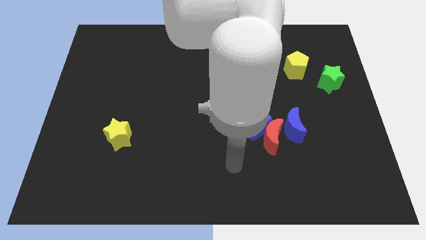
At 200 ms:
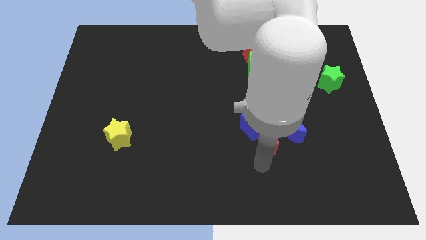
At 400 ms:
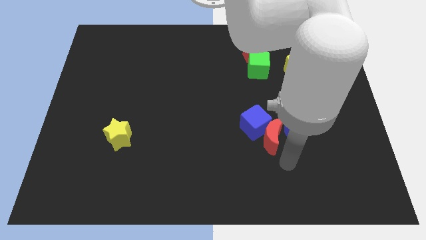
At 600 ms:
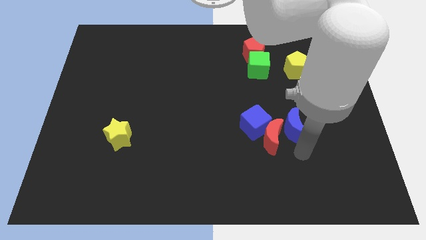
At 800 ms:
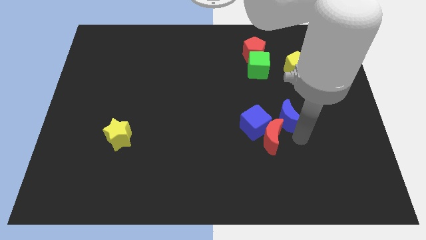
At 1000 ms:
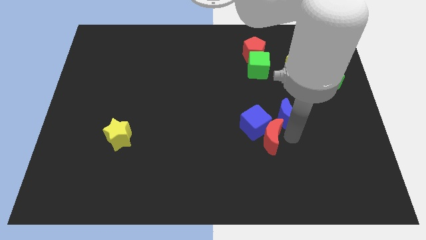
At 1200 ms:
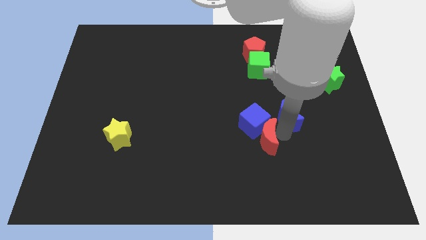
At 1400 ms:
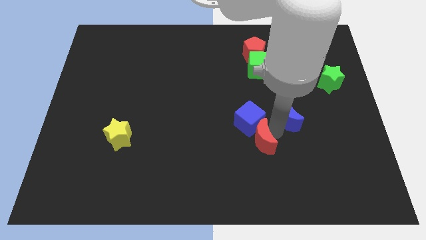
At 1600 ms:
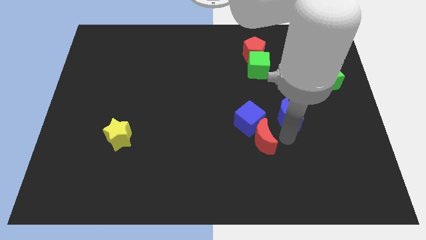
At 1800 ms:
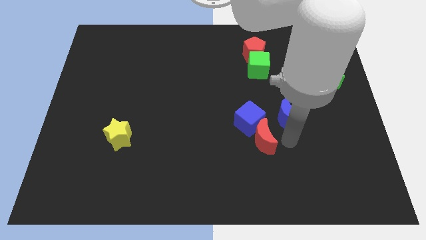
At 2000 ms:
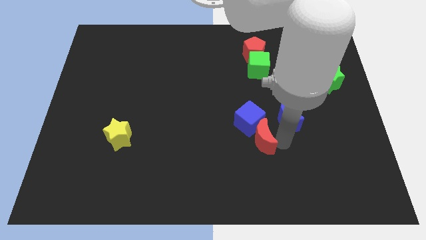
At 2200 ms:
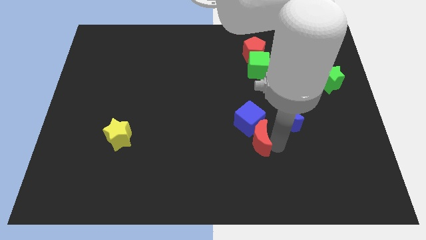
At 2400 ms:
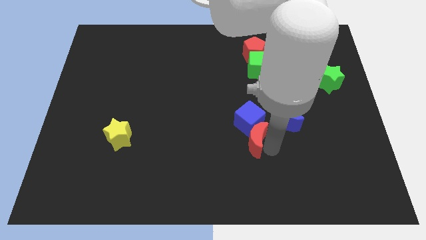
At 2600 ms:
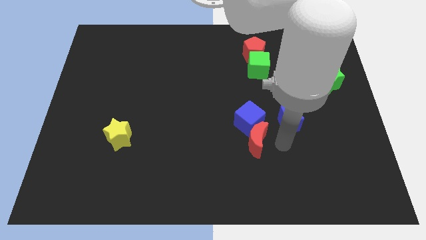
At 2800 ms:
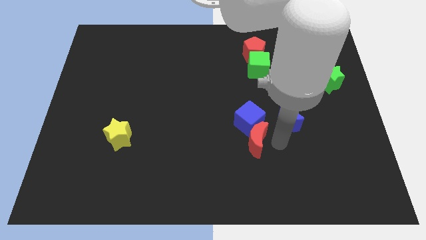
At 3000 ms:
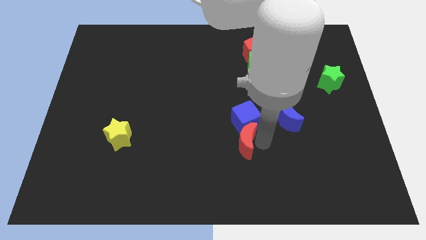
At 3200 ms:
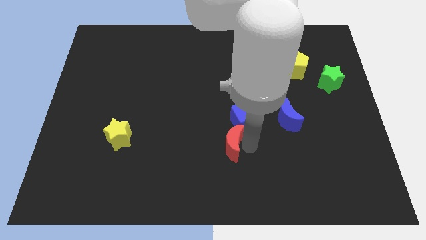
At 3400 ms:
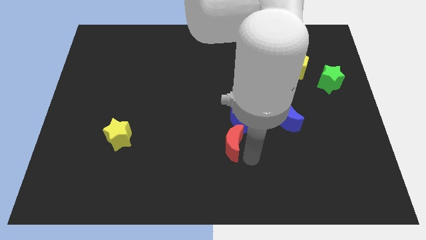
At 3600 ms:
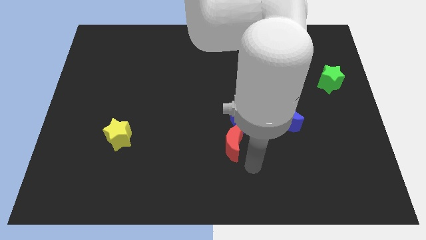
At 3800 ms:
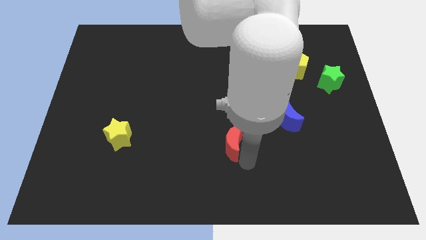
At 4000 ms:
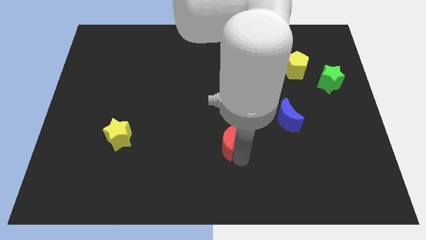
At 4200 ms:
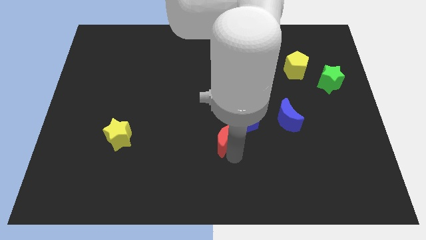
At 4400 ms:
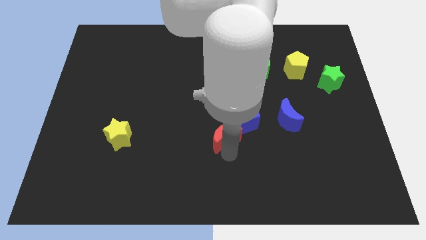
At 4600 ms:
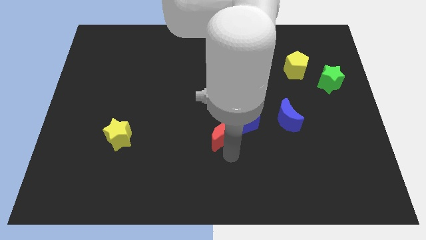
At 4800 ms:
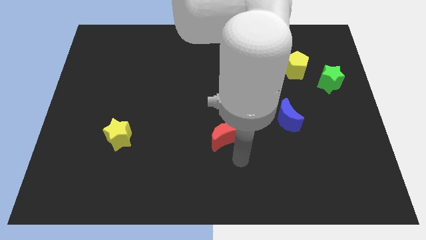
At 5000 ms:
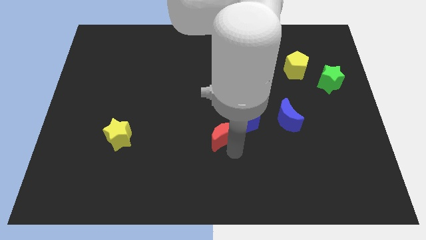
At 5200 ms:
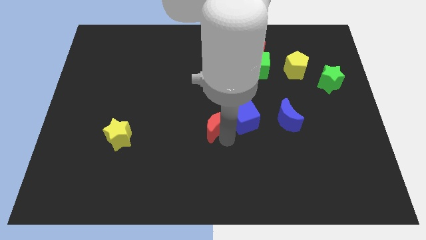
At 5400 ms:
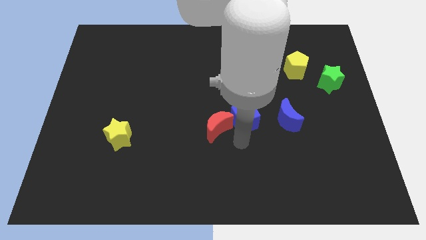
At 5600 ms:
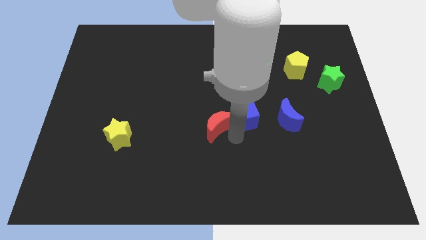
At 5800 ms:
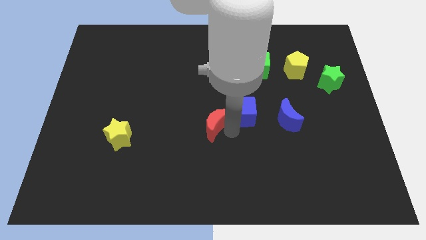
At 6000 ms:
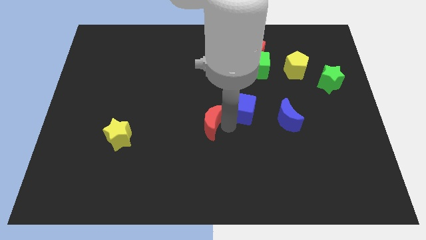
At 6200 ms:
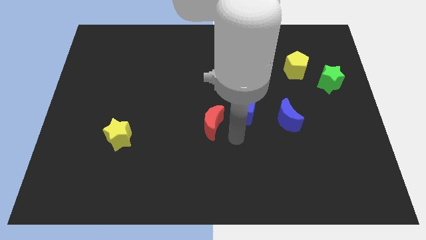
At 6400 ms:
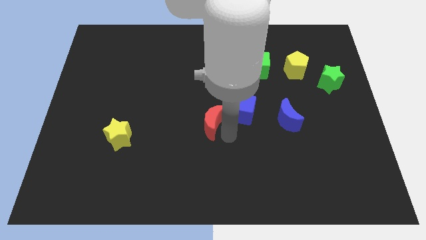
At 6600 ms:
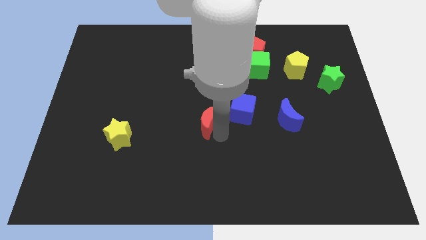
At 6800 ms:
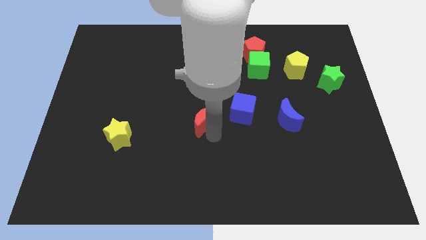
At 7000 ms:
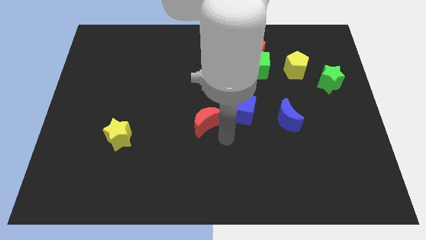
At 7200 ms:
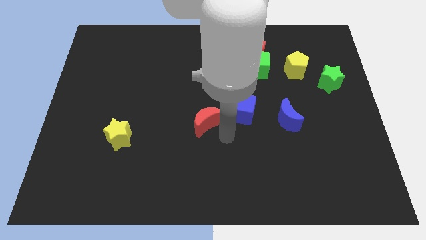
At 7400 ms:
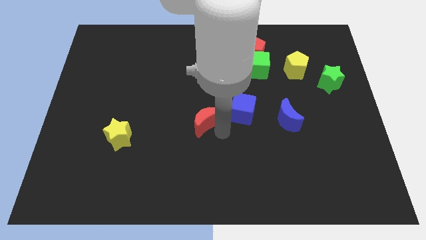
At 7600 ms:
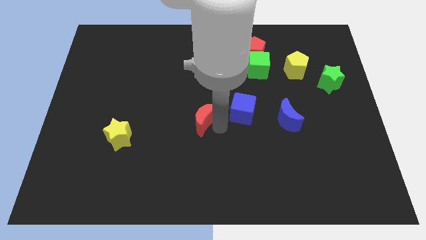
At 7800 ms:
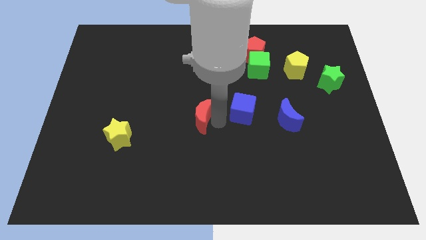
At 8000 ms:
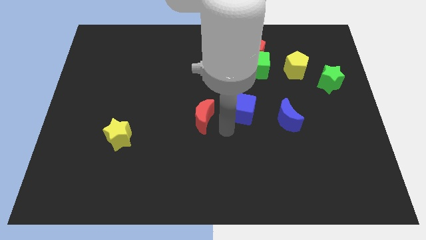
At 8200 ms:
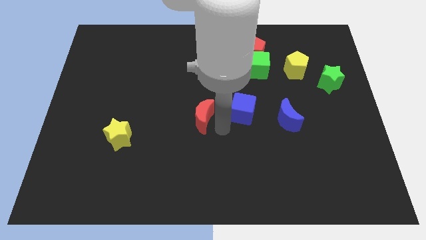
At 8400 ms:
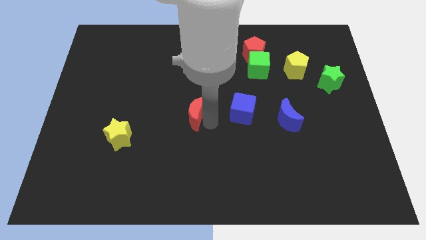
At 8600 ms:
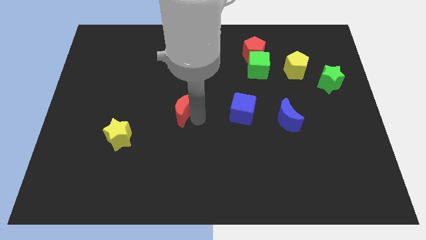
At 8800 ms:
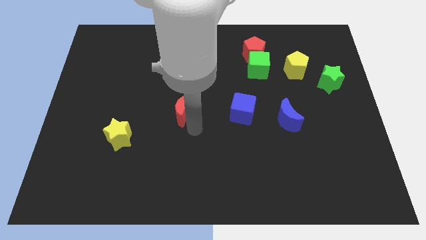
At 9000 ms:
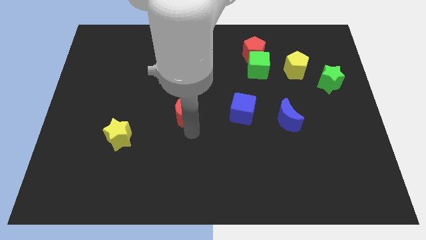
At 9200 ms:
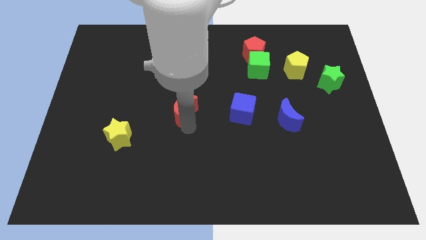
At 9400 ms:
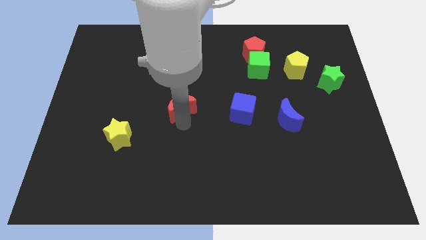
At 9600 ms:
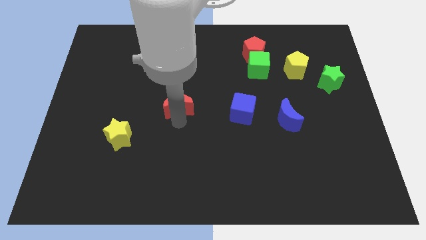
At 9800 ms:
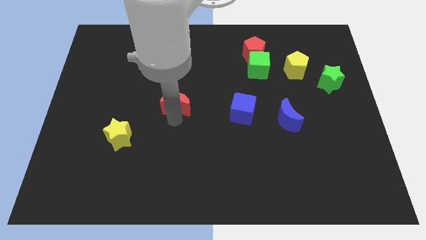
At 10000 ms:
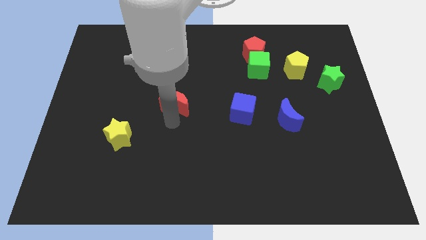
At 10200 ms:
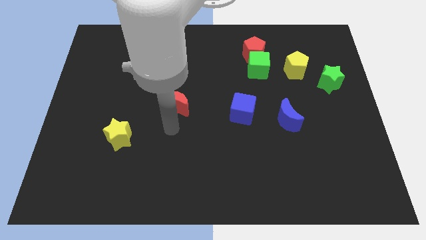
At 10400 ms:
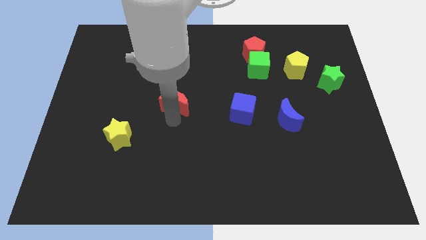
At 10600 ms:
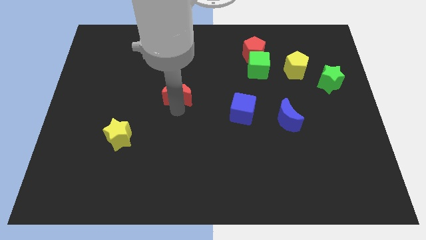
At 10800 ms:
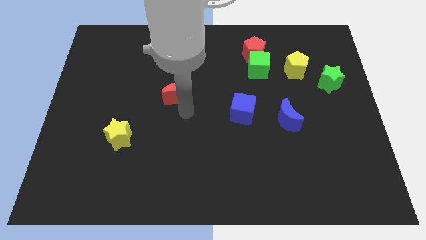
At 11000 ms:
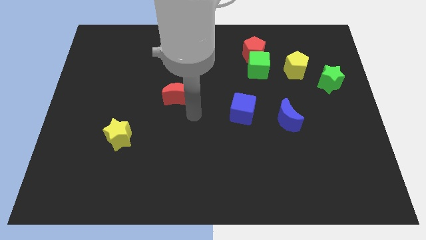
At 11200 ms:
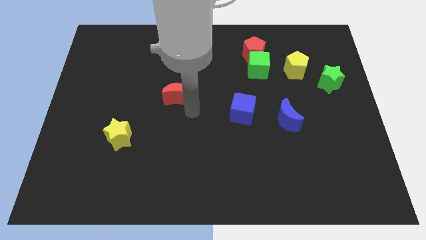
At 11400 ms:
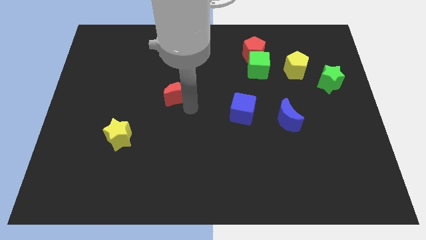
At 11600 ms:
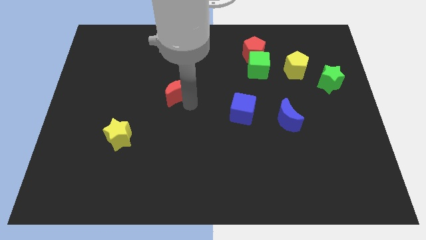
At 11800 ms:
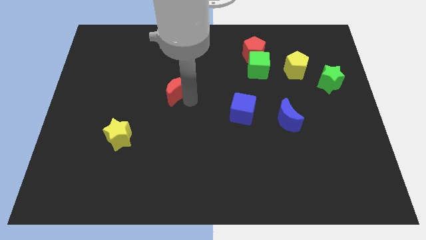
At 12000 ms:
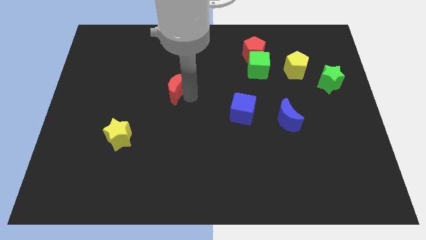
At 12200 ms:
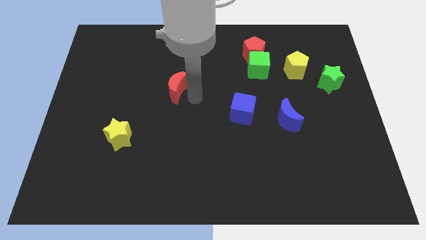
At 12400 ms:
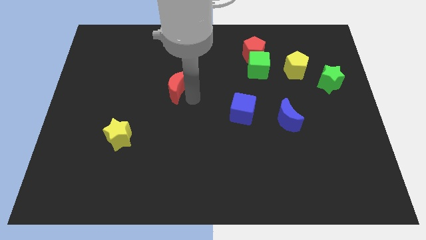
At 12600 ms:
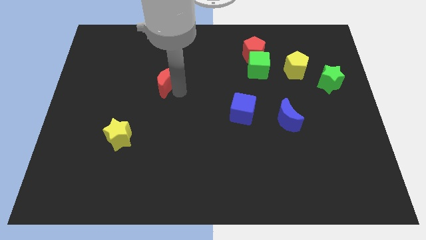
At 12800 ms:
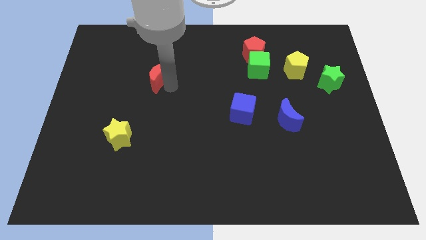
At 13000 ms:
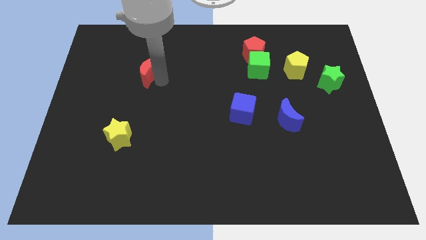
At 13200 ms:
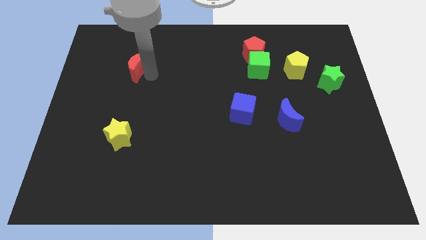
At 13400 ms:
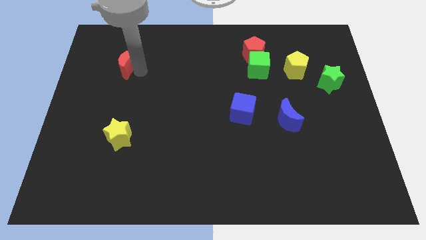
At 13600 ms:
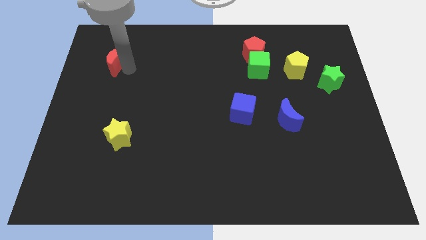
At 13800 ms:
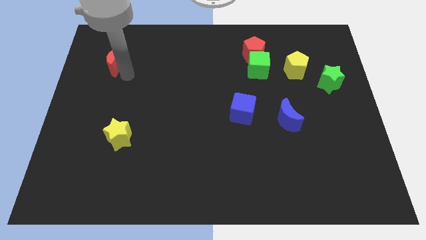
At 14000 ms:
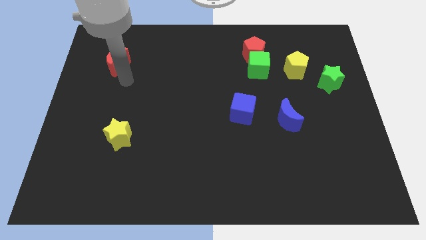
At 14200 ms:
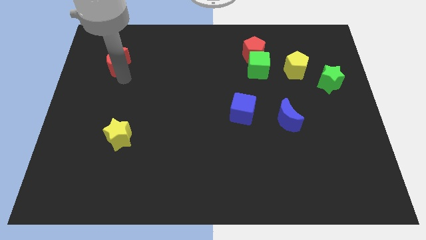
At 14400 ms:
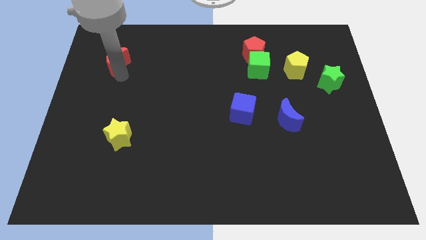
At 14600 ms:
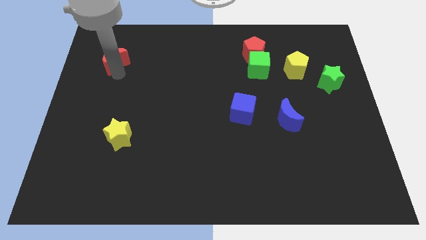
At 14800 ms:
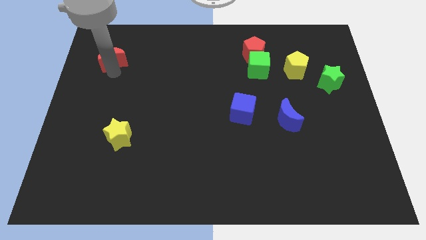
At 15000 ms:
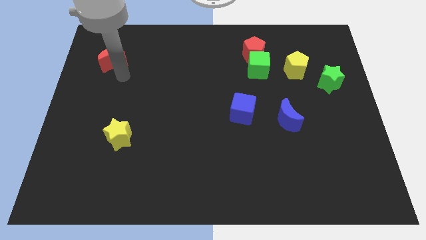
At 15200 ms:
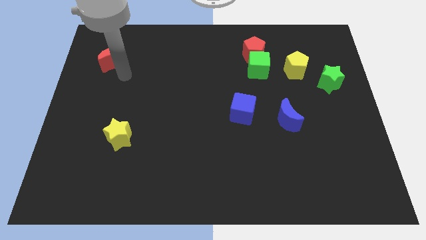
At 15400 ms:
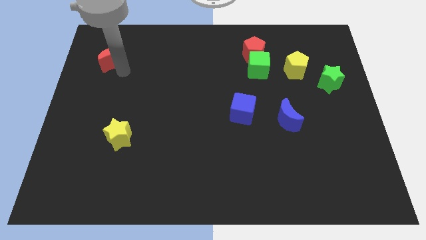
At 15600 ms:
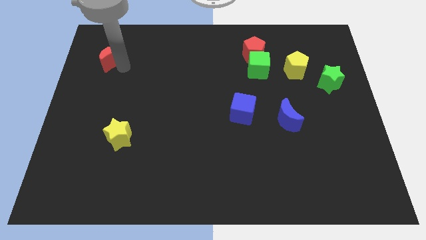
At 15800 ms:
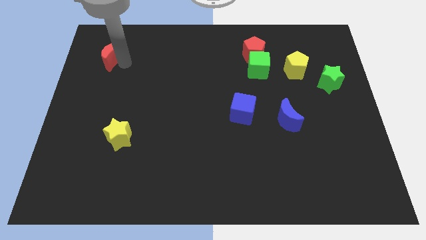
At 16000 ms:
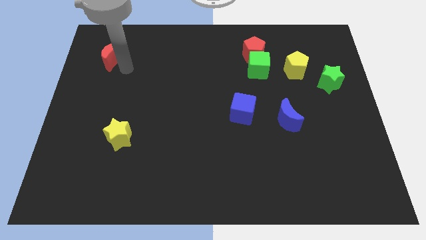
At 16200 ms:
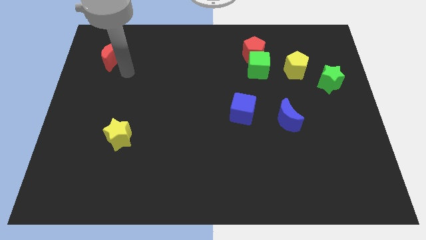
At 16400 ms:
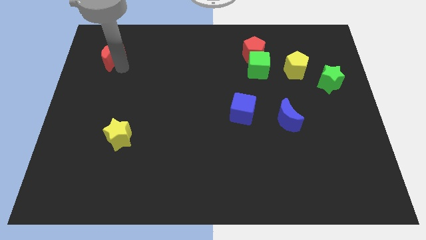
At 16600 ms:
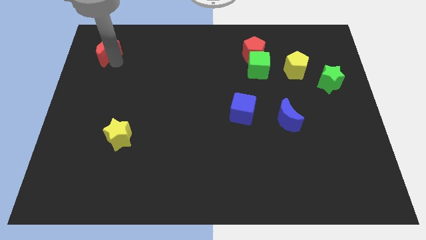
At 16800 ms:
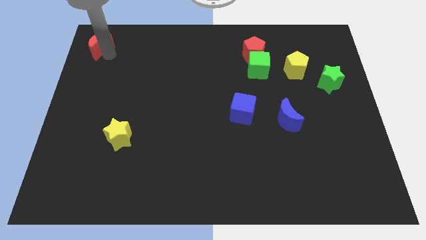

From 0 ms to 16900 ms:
push the red moon to the upper left corner
